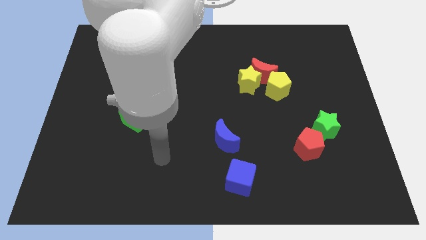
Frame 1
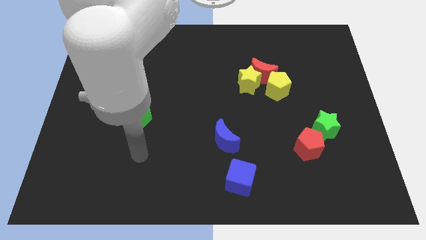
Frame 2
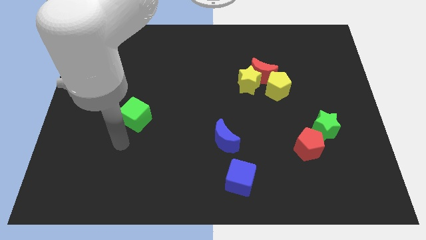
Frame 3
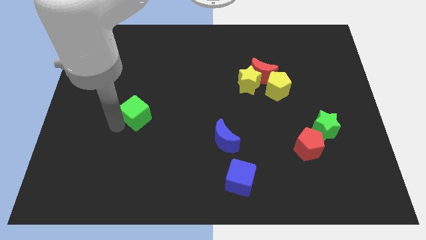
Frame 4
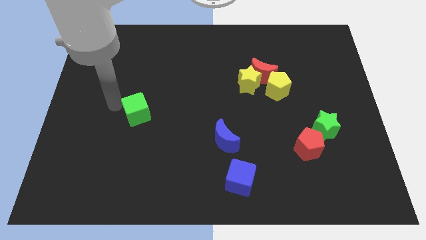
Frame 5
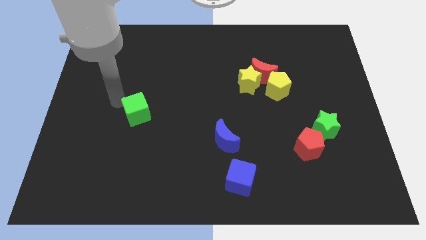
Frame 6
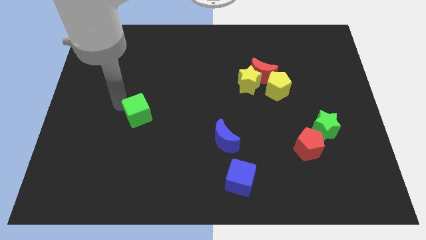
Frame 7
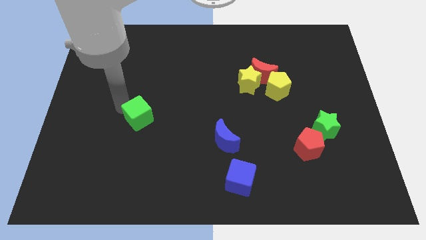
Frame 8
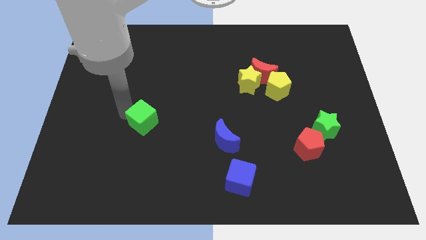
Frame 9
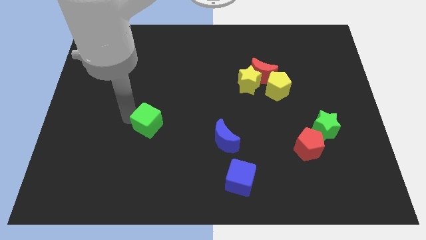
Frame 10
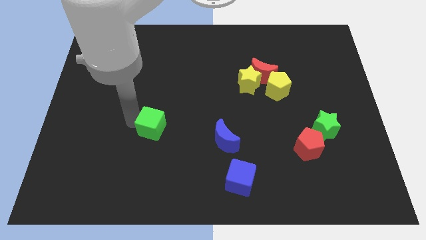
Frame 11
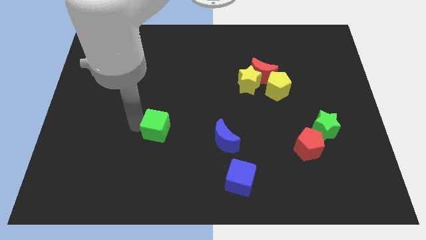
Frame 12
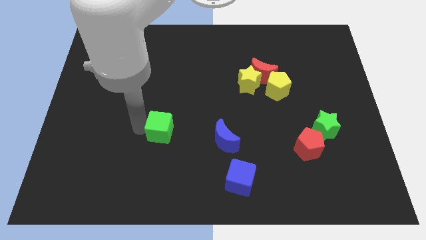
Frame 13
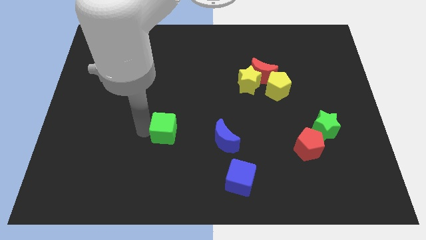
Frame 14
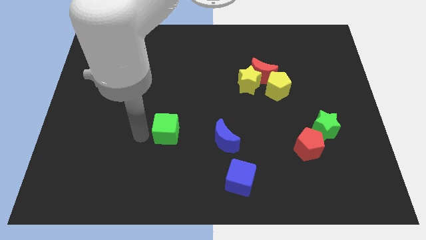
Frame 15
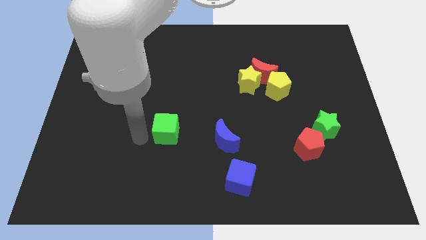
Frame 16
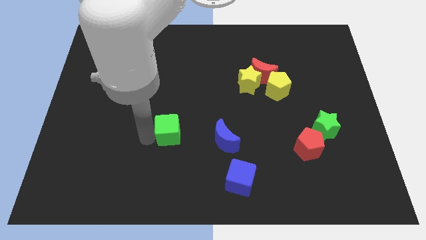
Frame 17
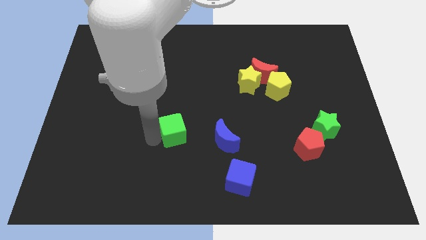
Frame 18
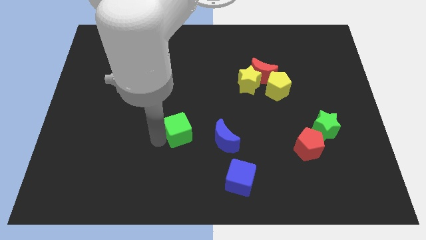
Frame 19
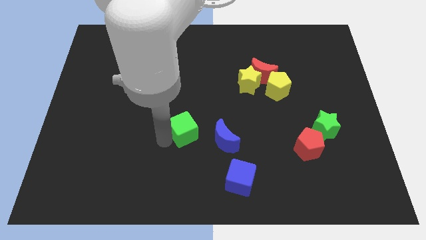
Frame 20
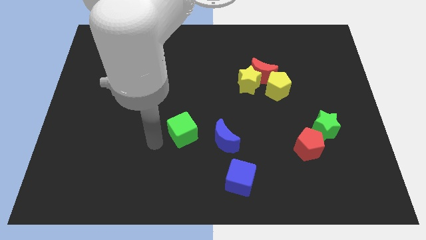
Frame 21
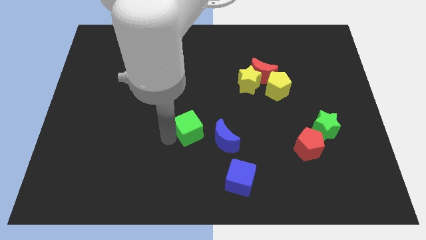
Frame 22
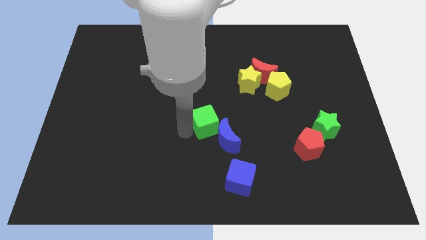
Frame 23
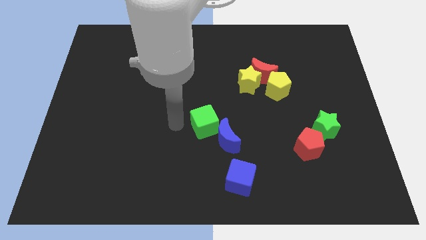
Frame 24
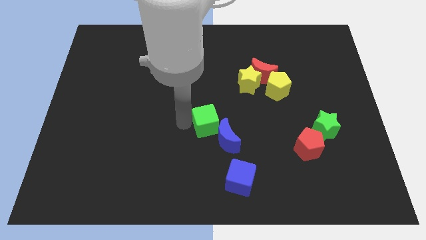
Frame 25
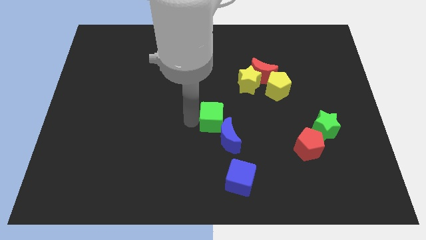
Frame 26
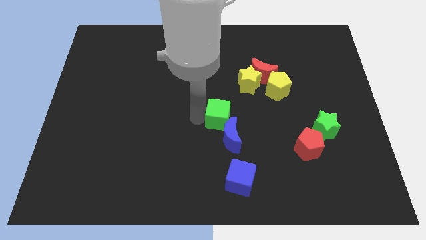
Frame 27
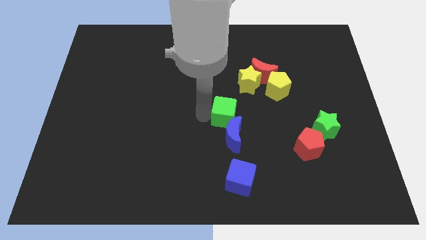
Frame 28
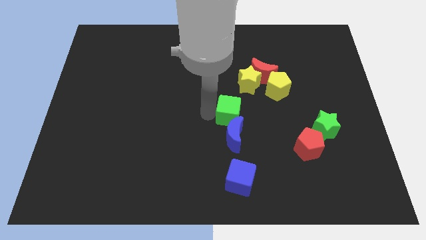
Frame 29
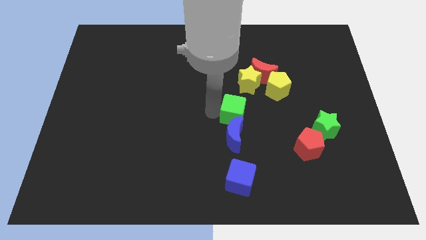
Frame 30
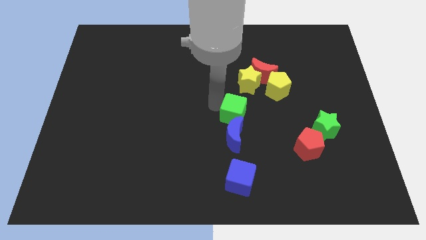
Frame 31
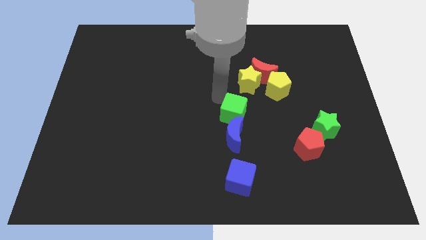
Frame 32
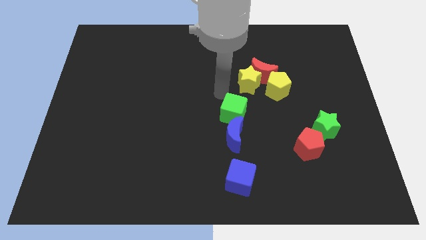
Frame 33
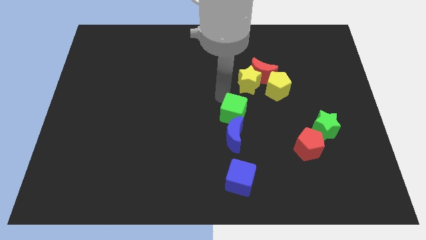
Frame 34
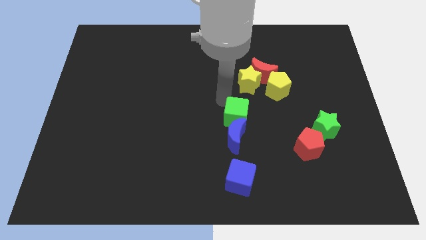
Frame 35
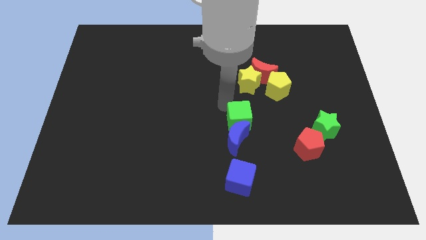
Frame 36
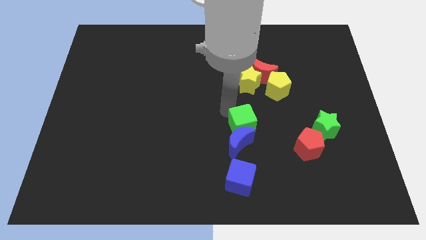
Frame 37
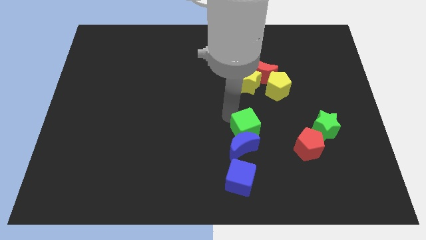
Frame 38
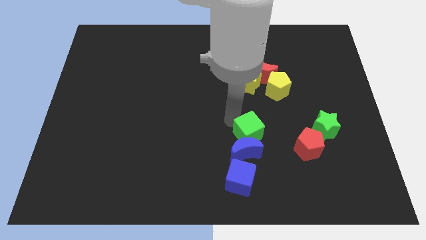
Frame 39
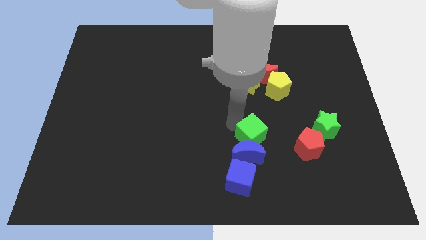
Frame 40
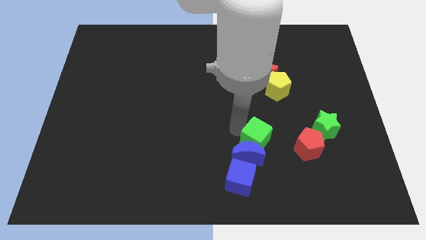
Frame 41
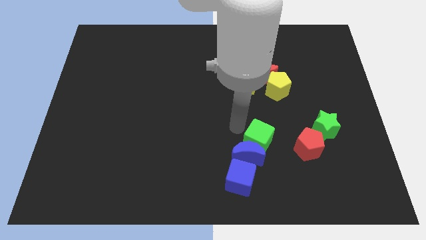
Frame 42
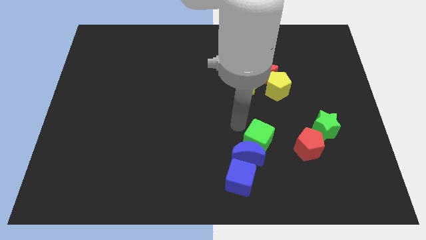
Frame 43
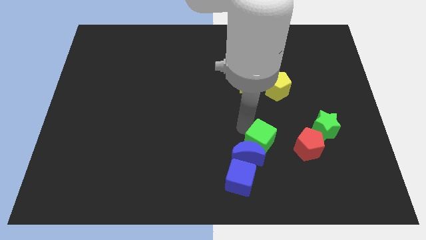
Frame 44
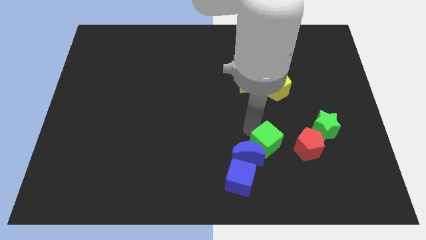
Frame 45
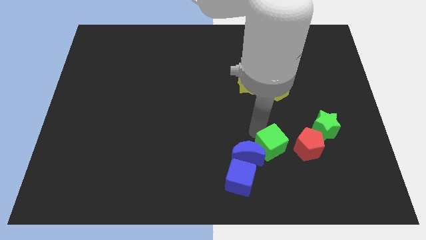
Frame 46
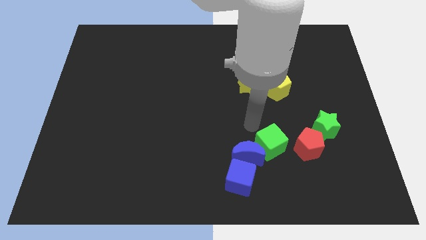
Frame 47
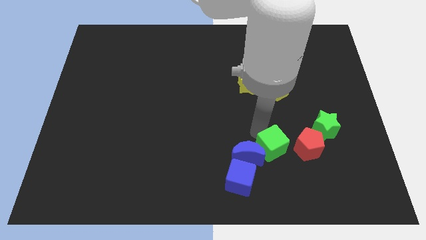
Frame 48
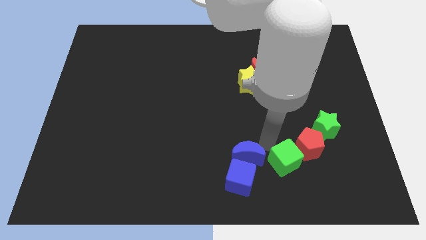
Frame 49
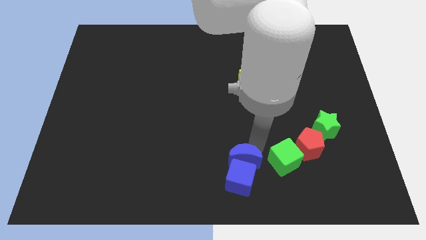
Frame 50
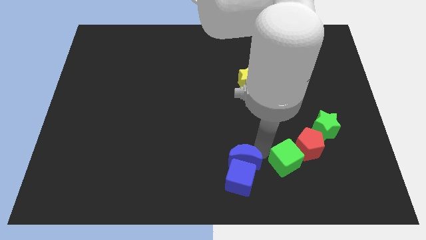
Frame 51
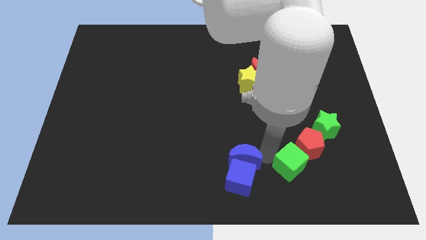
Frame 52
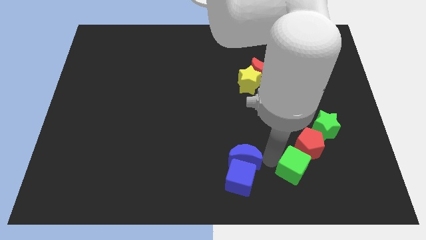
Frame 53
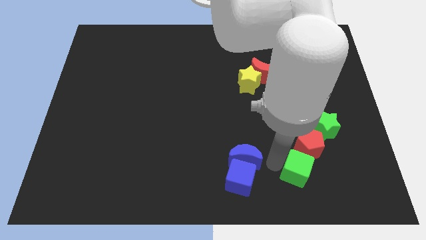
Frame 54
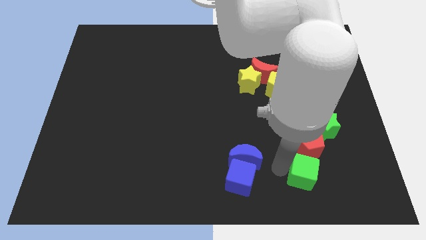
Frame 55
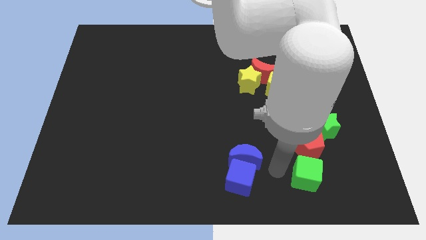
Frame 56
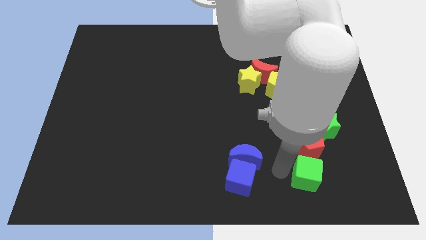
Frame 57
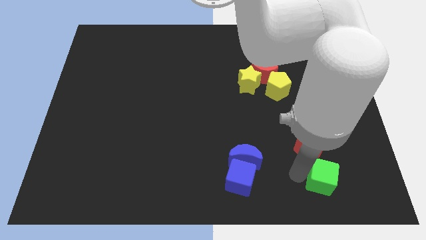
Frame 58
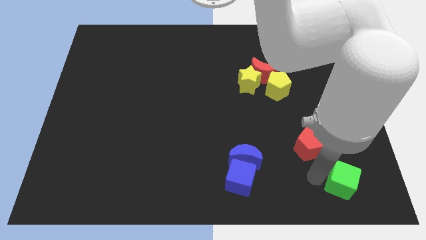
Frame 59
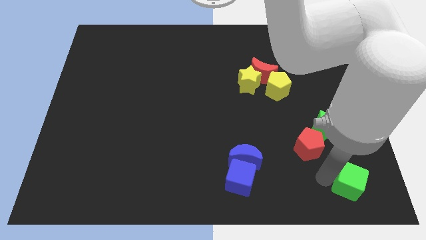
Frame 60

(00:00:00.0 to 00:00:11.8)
put the green cube to the bottom right of the board
